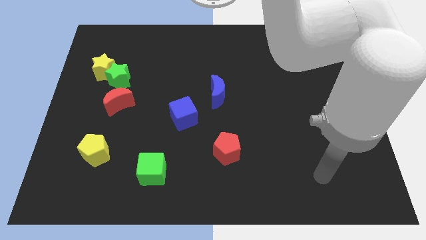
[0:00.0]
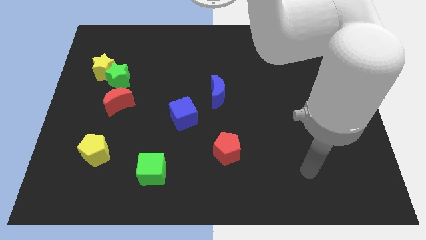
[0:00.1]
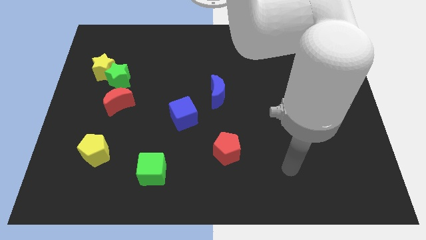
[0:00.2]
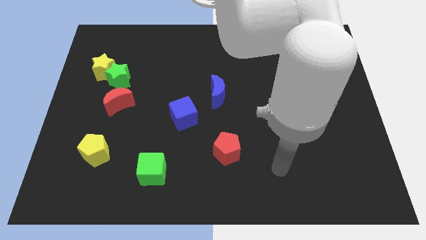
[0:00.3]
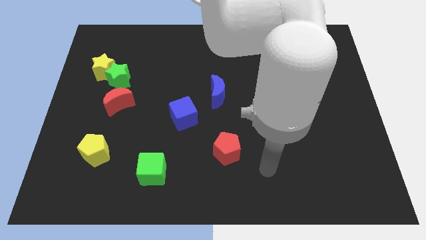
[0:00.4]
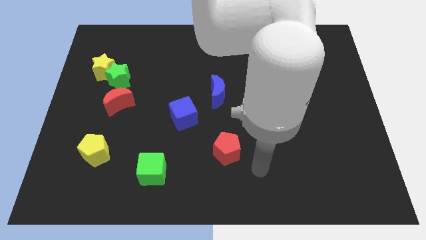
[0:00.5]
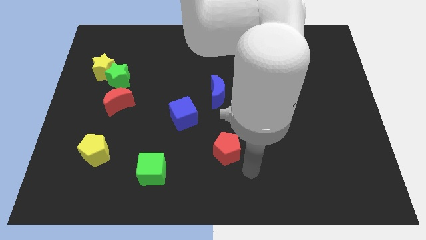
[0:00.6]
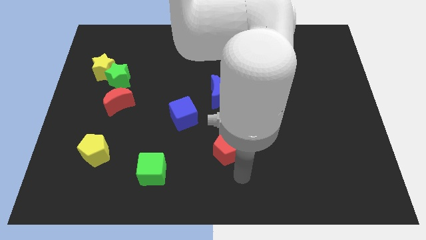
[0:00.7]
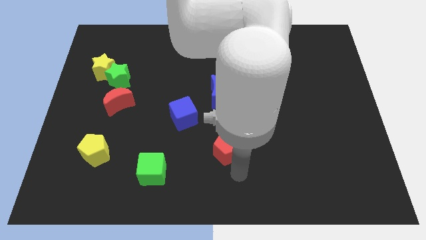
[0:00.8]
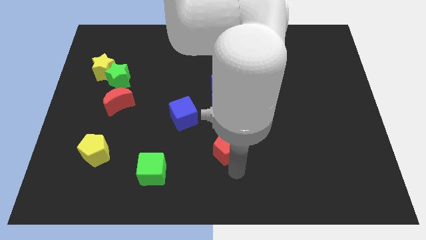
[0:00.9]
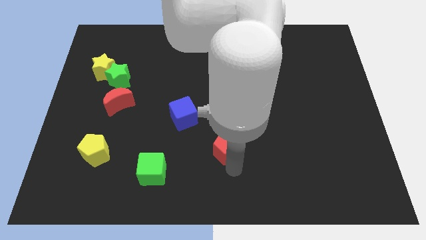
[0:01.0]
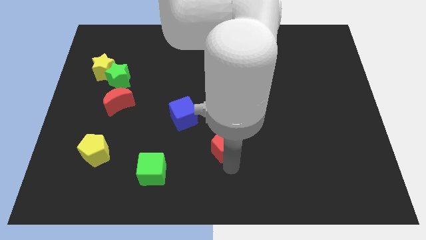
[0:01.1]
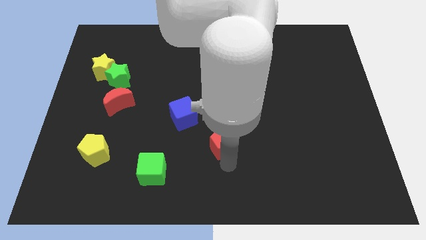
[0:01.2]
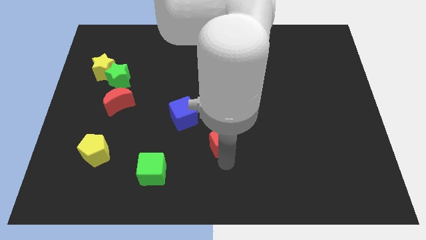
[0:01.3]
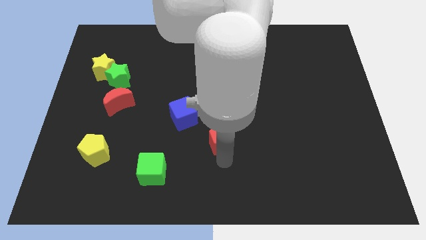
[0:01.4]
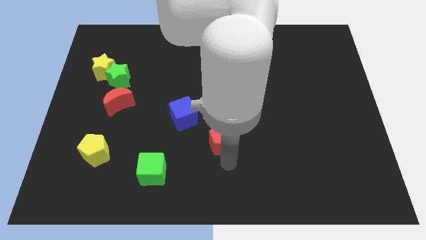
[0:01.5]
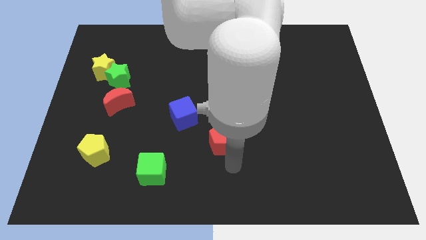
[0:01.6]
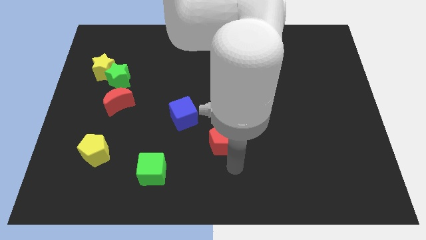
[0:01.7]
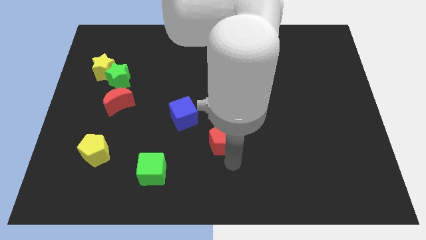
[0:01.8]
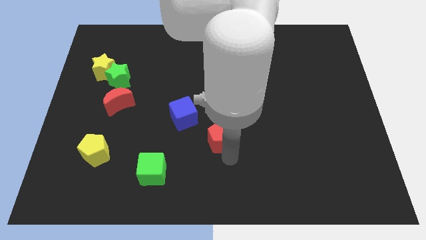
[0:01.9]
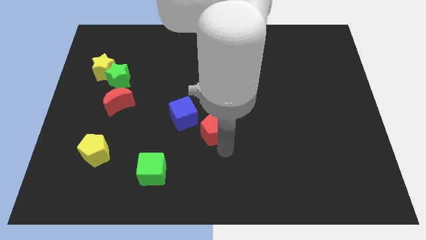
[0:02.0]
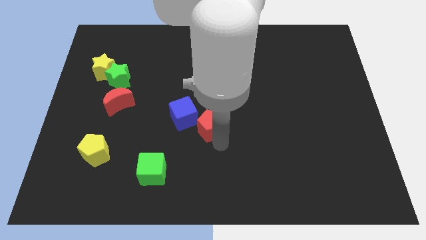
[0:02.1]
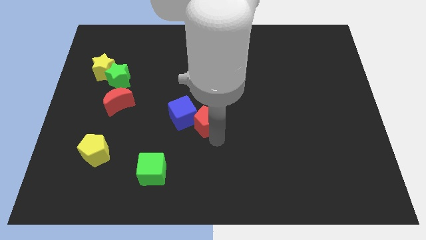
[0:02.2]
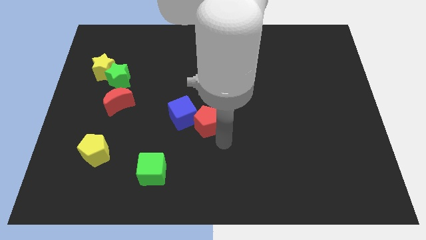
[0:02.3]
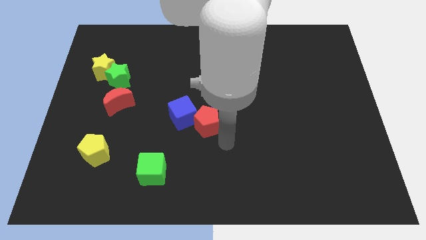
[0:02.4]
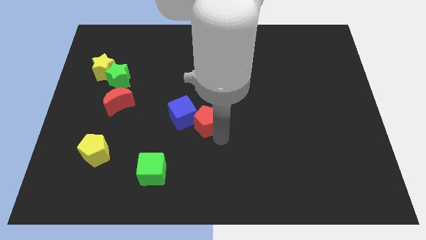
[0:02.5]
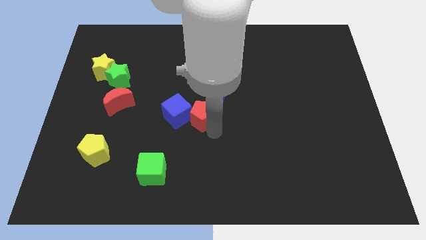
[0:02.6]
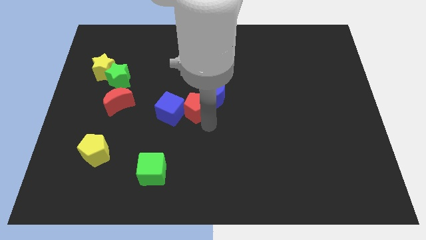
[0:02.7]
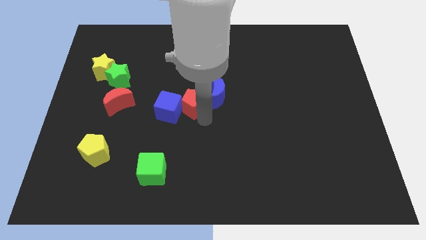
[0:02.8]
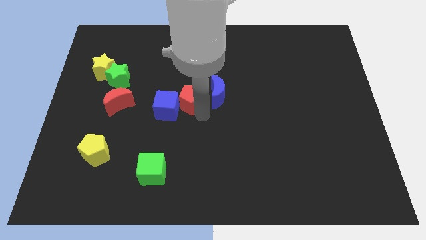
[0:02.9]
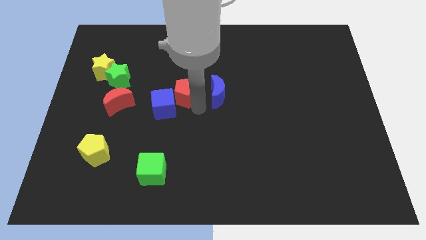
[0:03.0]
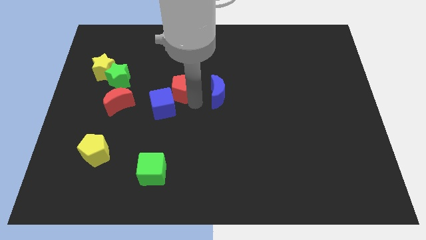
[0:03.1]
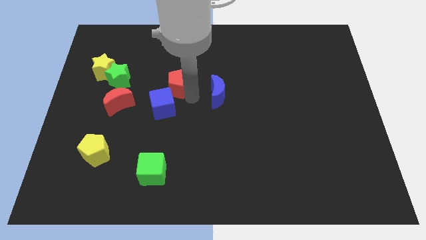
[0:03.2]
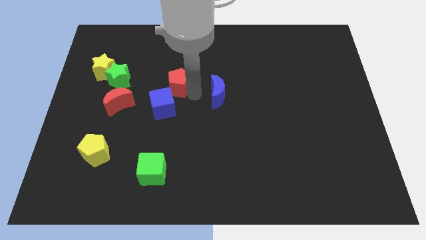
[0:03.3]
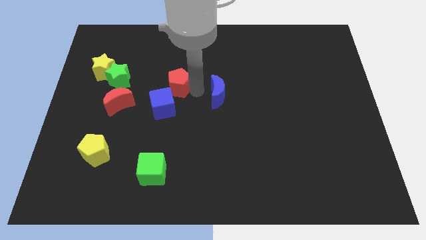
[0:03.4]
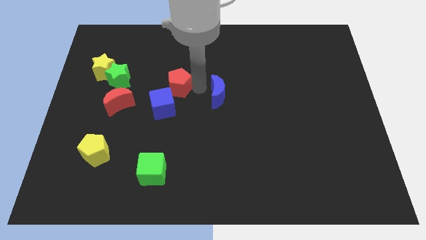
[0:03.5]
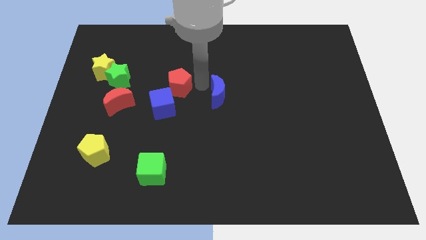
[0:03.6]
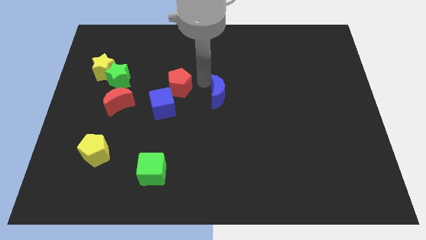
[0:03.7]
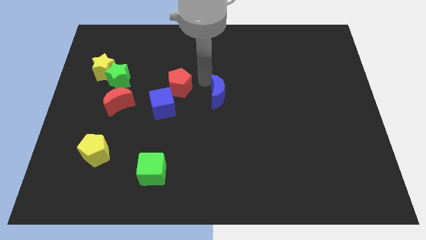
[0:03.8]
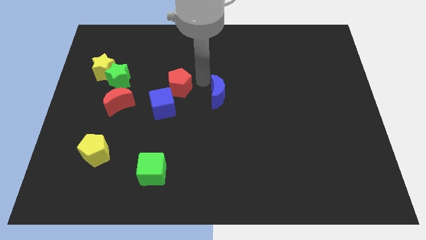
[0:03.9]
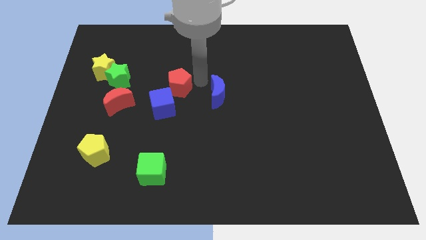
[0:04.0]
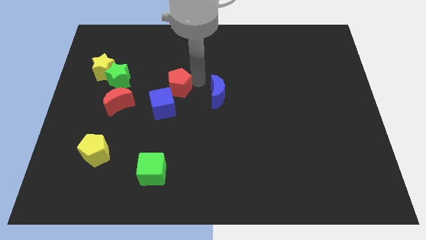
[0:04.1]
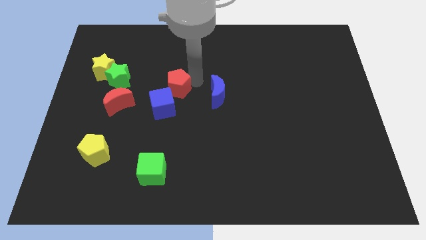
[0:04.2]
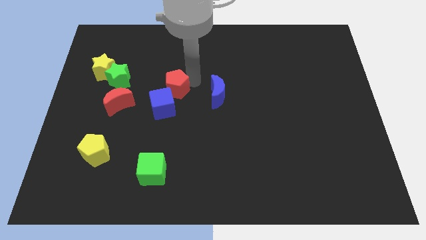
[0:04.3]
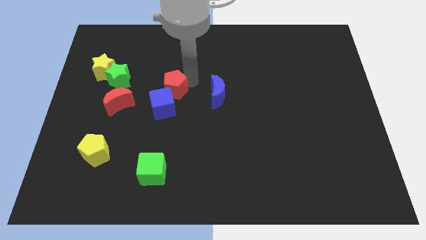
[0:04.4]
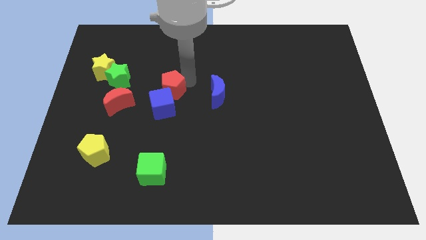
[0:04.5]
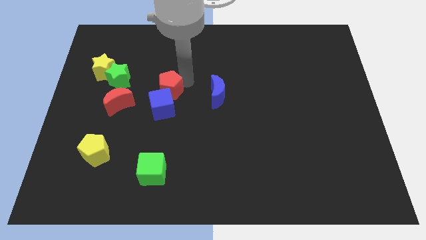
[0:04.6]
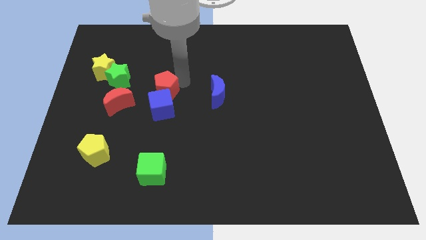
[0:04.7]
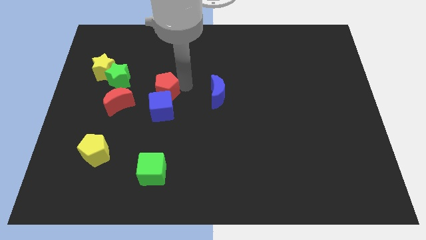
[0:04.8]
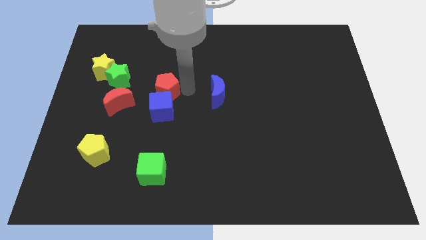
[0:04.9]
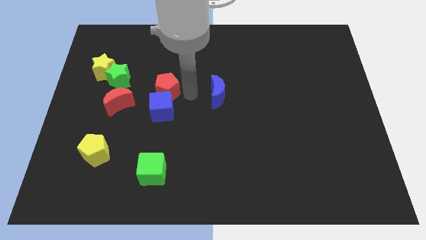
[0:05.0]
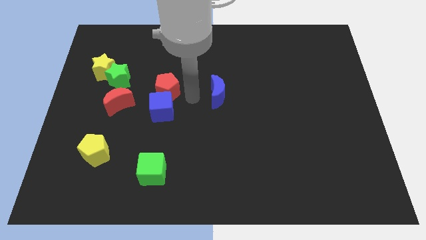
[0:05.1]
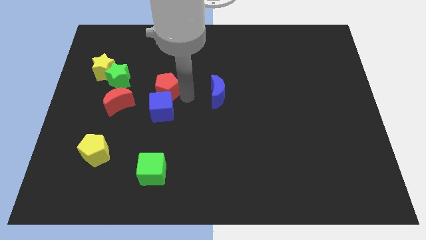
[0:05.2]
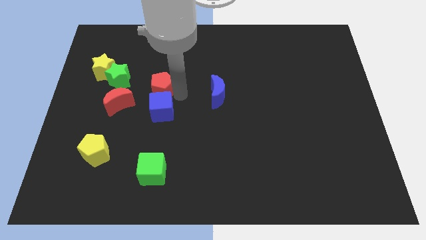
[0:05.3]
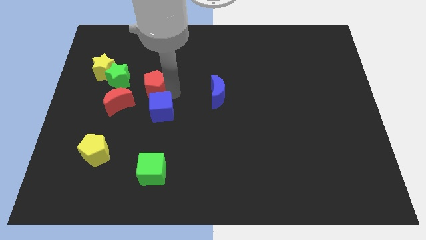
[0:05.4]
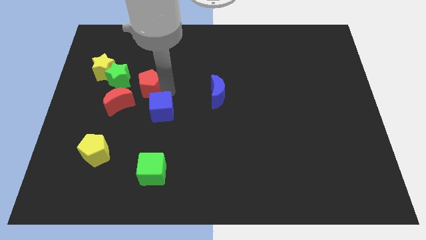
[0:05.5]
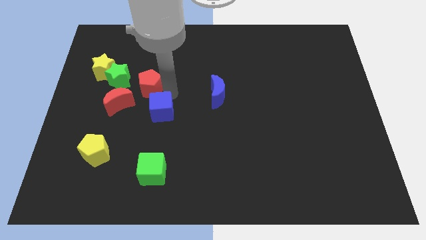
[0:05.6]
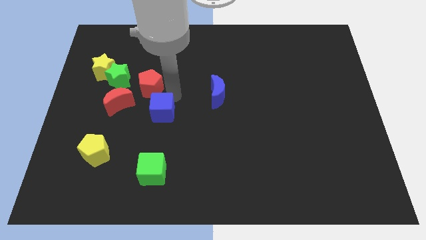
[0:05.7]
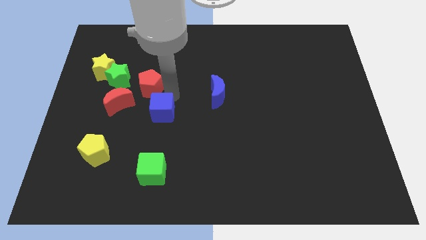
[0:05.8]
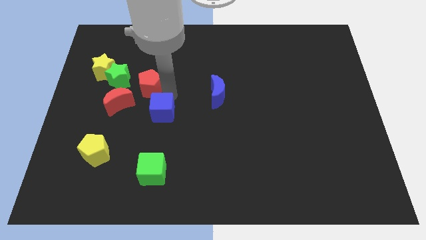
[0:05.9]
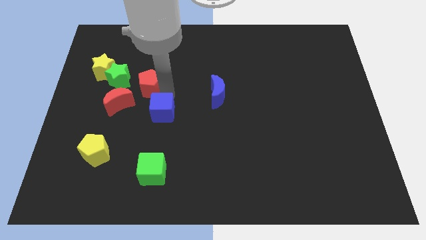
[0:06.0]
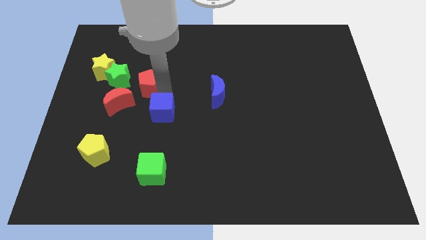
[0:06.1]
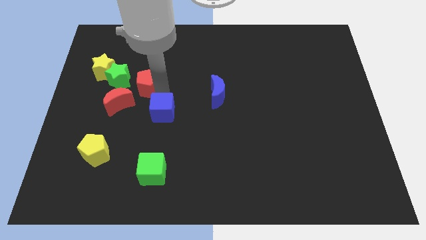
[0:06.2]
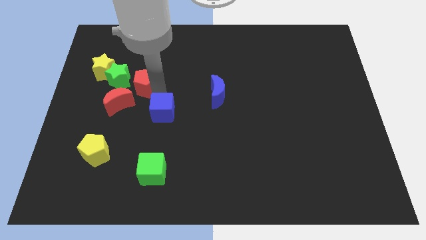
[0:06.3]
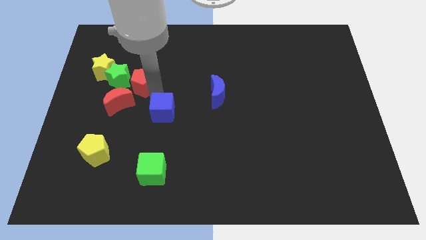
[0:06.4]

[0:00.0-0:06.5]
push the red pentagon to the green star
